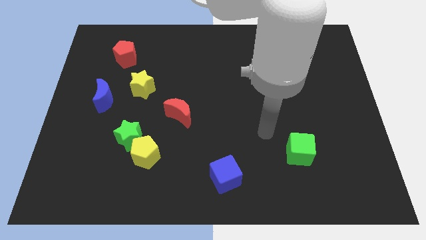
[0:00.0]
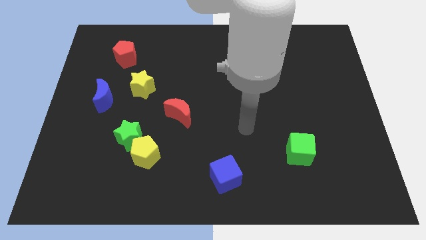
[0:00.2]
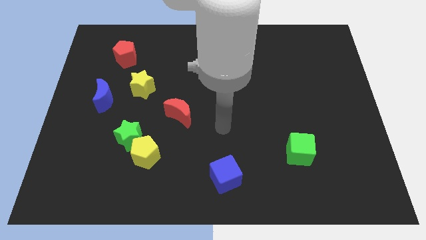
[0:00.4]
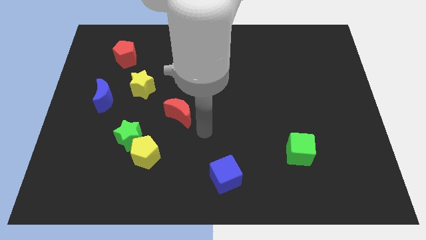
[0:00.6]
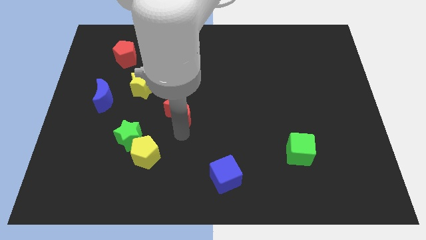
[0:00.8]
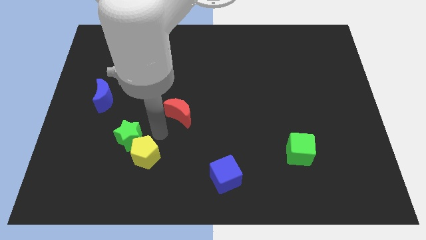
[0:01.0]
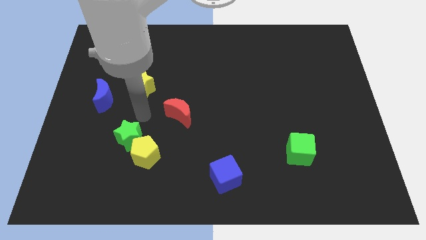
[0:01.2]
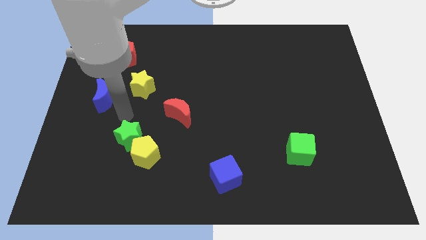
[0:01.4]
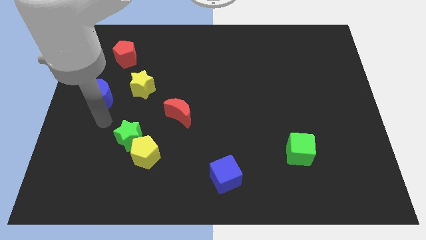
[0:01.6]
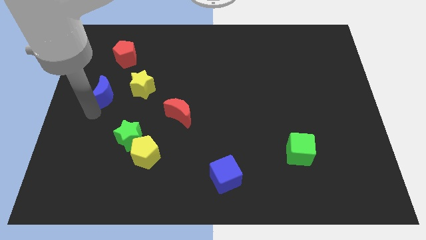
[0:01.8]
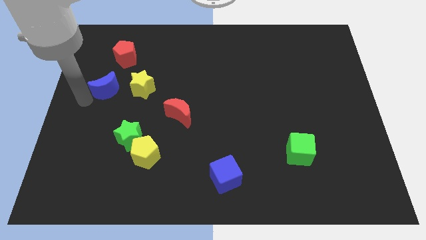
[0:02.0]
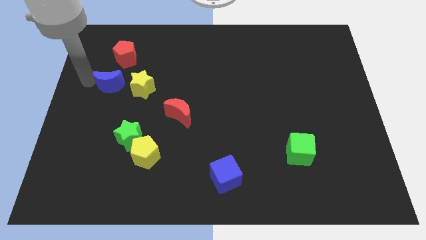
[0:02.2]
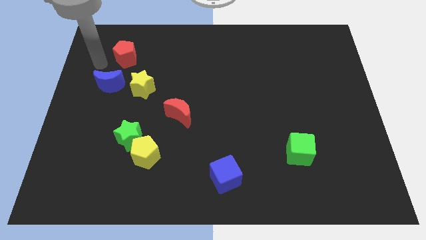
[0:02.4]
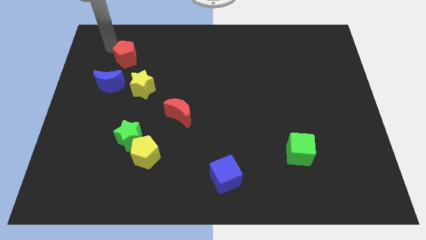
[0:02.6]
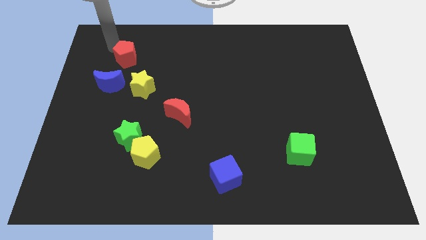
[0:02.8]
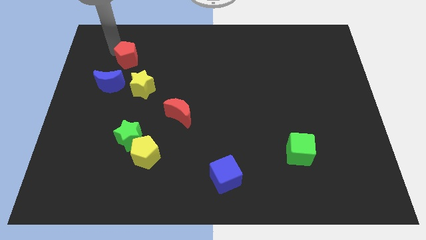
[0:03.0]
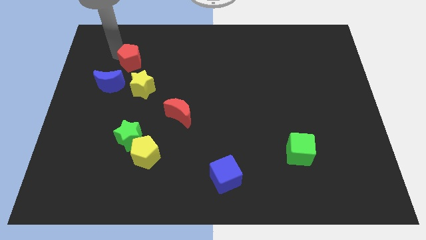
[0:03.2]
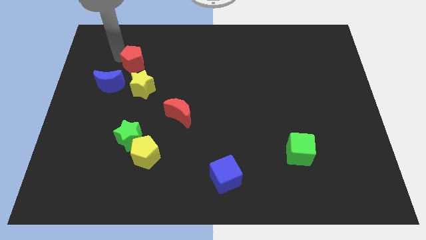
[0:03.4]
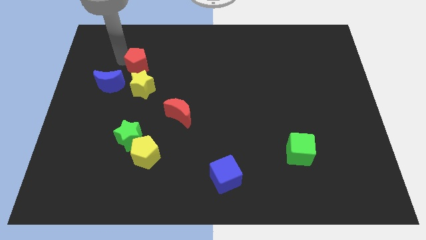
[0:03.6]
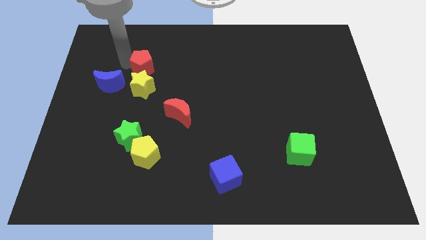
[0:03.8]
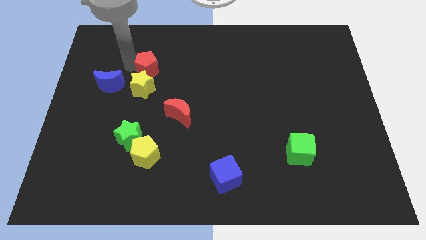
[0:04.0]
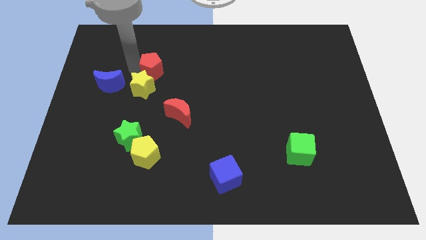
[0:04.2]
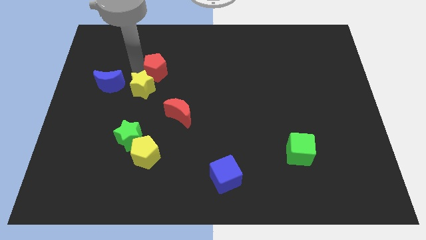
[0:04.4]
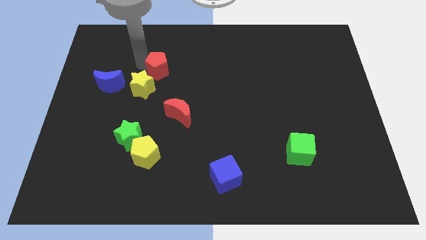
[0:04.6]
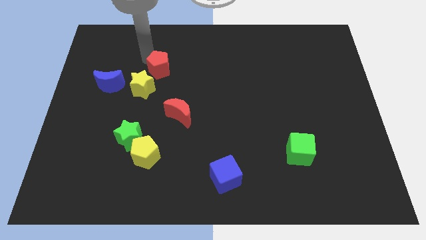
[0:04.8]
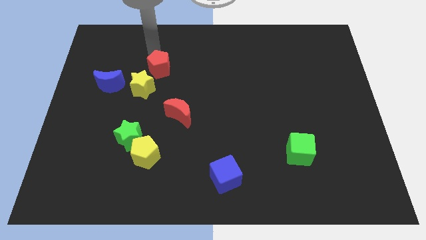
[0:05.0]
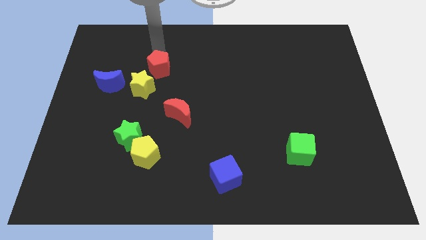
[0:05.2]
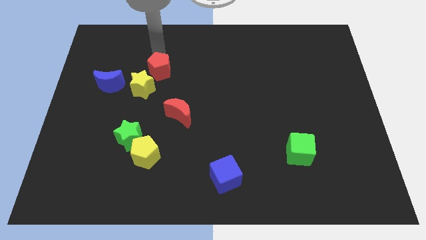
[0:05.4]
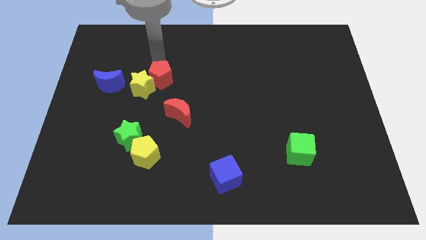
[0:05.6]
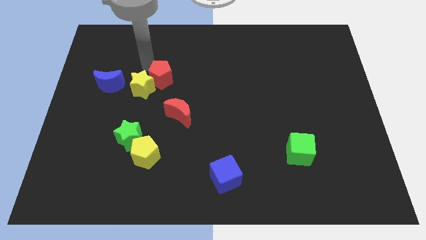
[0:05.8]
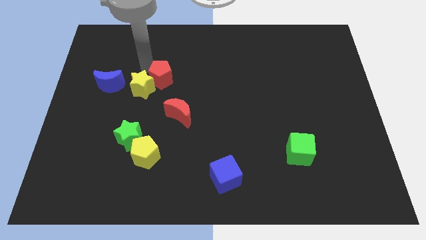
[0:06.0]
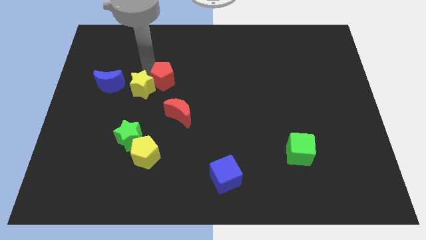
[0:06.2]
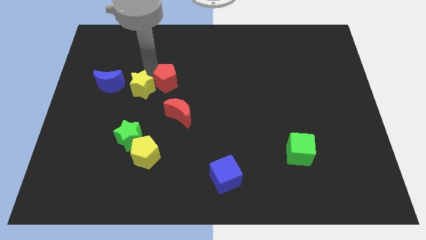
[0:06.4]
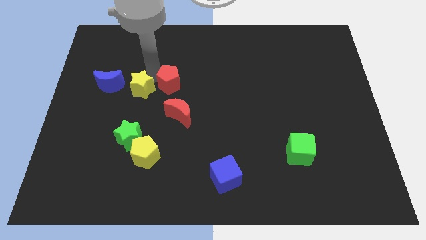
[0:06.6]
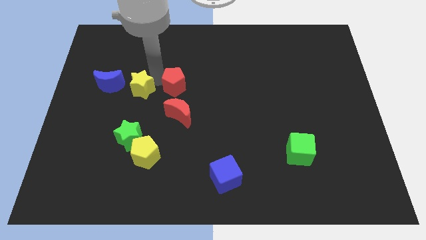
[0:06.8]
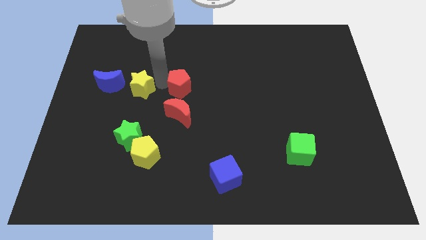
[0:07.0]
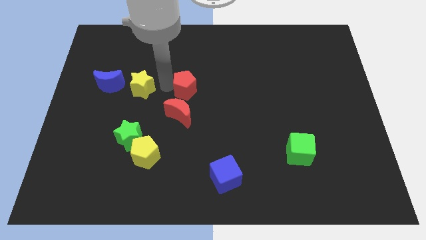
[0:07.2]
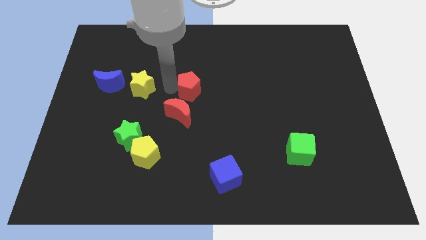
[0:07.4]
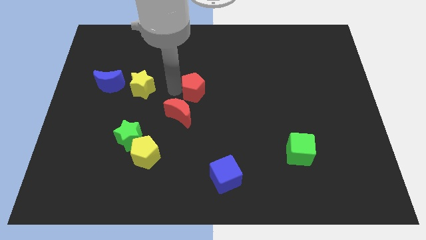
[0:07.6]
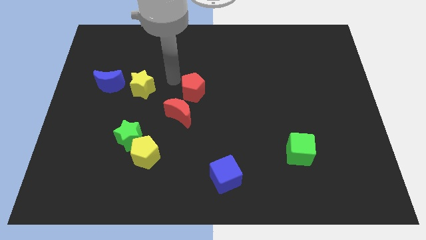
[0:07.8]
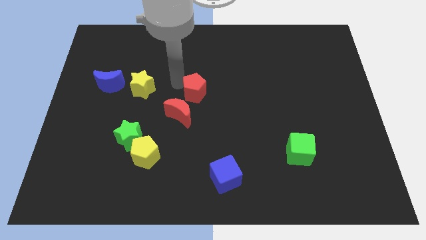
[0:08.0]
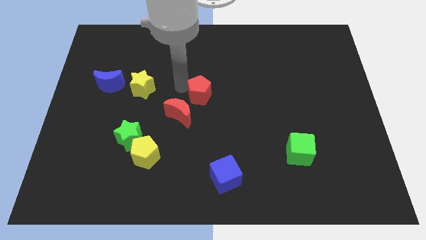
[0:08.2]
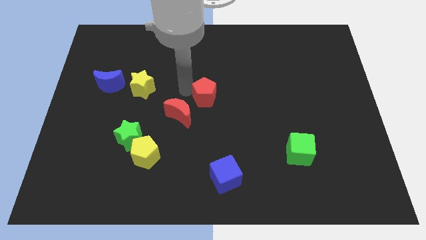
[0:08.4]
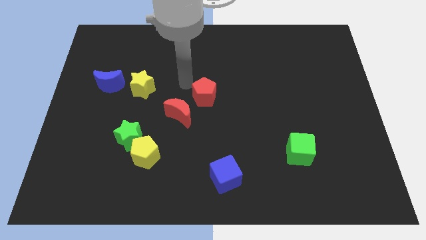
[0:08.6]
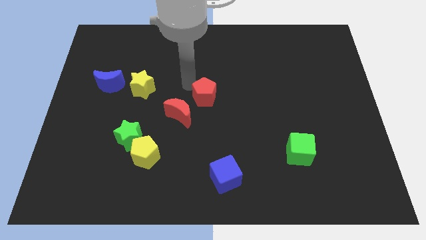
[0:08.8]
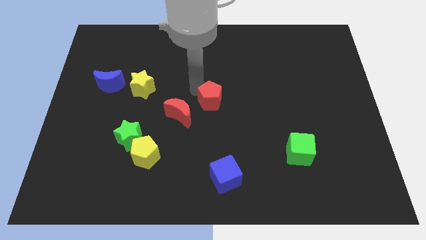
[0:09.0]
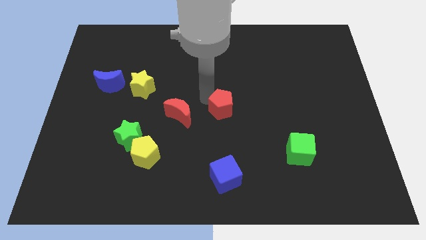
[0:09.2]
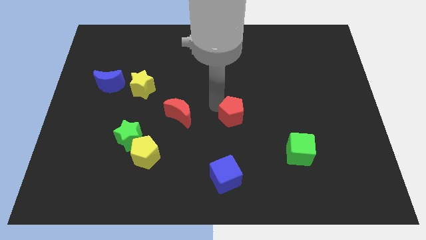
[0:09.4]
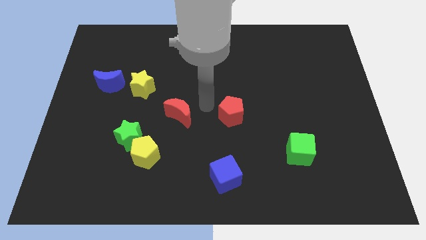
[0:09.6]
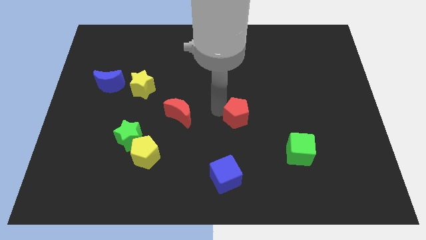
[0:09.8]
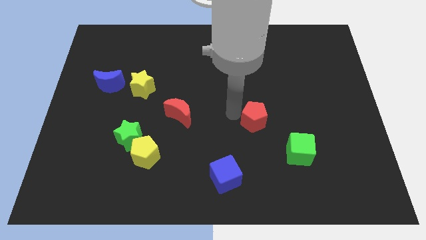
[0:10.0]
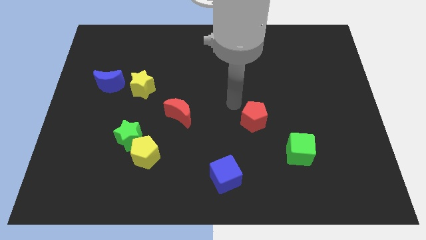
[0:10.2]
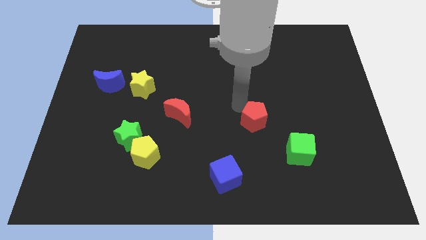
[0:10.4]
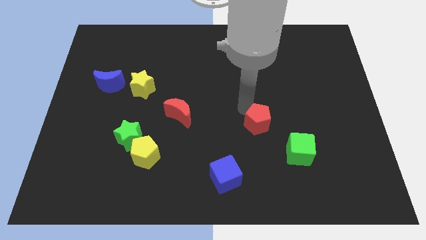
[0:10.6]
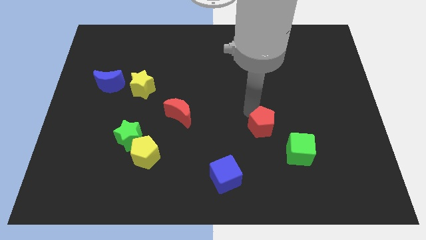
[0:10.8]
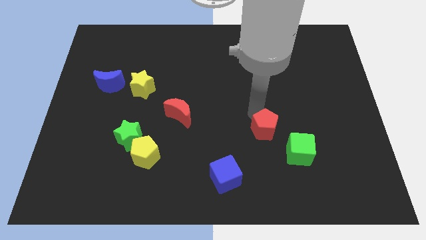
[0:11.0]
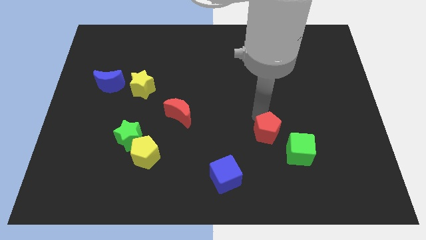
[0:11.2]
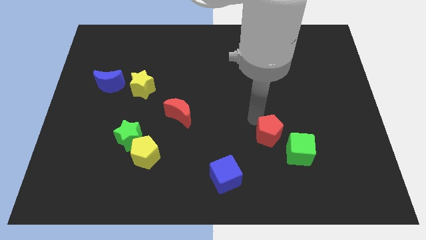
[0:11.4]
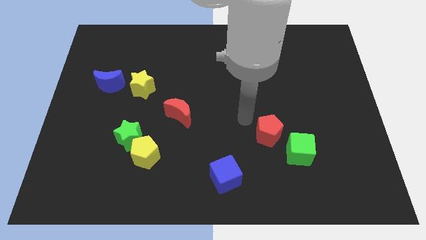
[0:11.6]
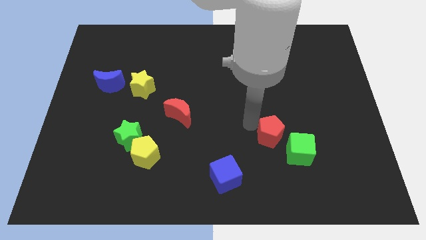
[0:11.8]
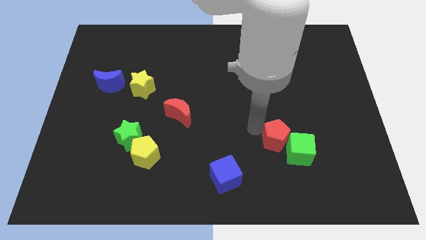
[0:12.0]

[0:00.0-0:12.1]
push the red pentagon to the green cube

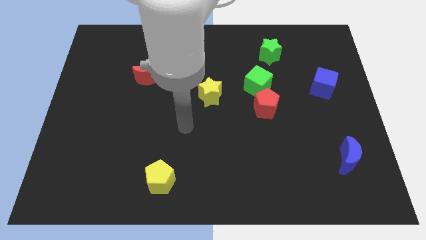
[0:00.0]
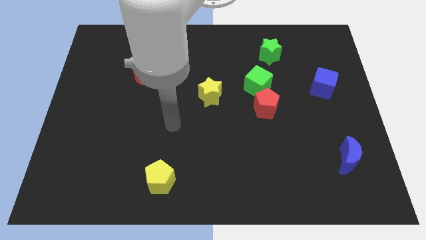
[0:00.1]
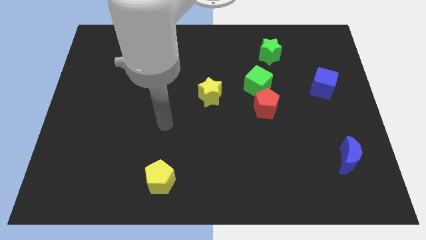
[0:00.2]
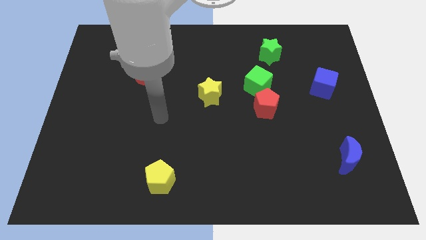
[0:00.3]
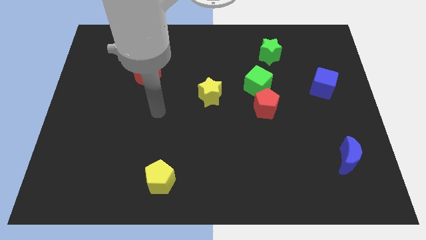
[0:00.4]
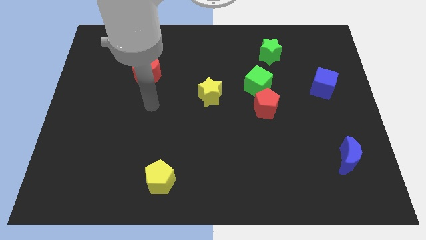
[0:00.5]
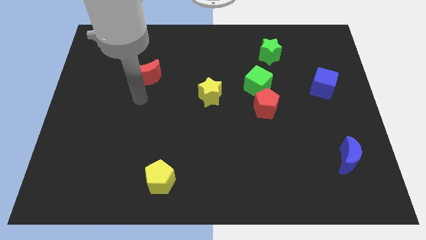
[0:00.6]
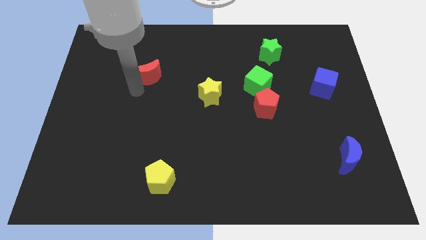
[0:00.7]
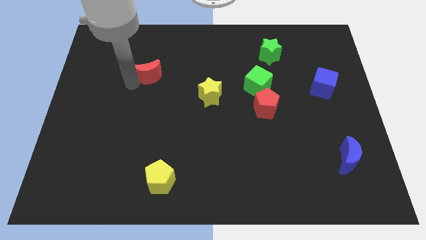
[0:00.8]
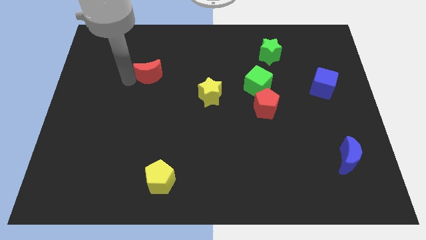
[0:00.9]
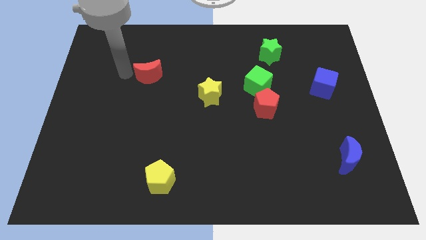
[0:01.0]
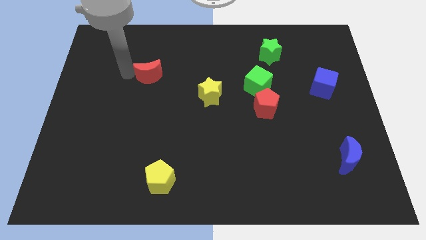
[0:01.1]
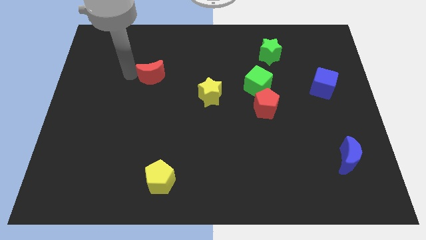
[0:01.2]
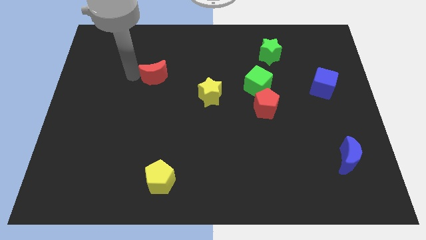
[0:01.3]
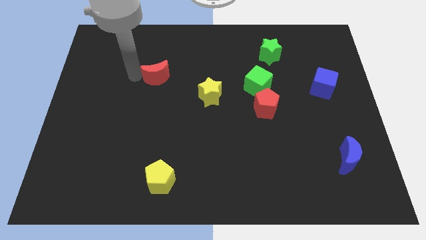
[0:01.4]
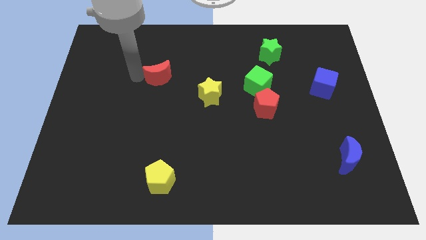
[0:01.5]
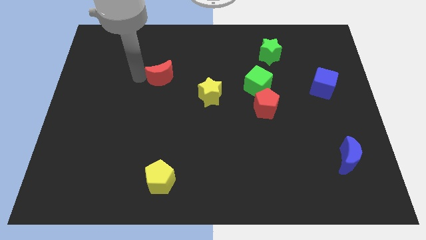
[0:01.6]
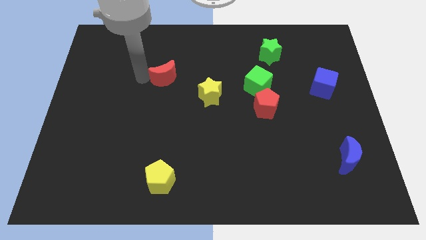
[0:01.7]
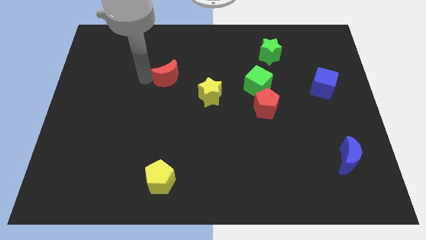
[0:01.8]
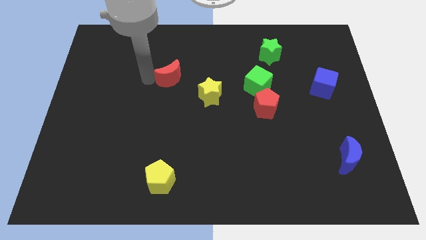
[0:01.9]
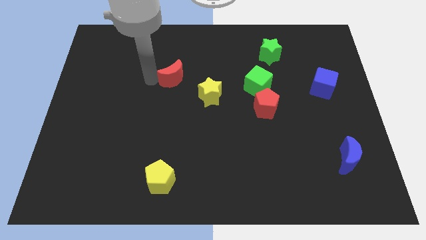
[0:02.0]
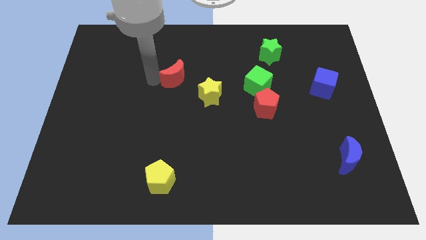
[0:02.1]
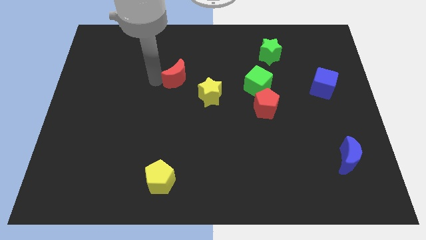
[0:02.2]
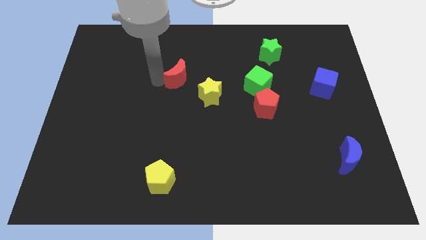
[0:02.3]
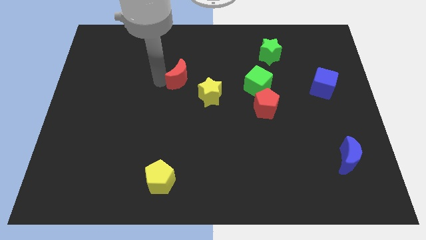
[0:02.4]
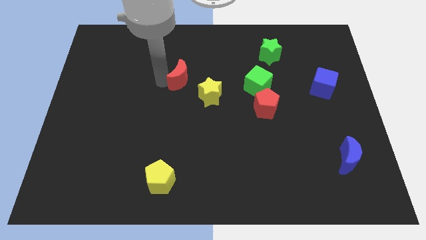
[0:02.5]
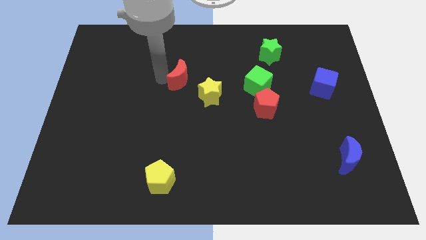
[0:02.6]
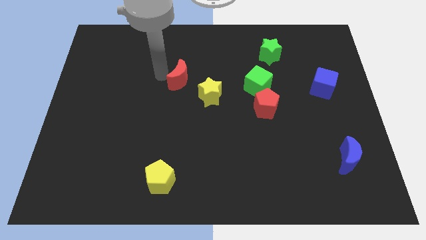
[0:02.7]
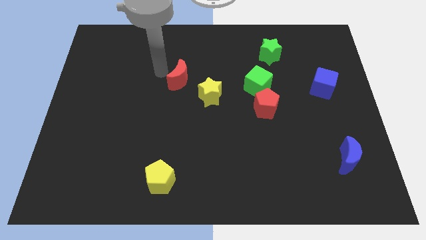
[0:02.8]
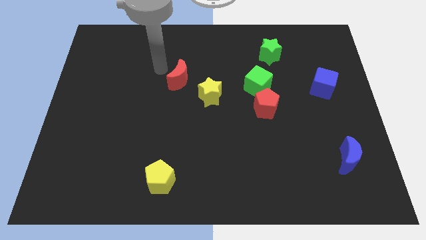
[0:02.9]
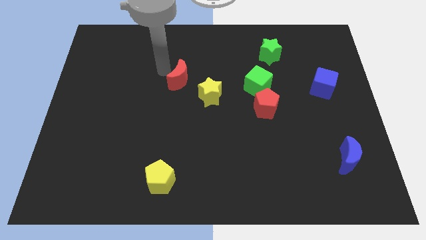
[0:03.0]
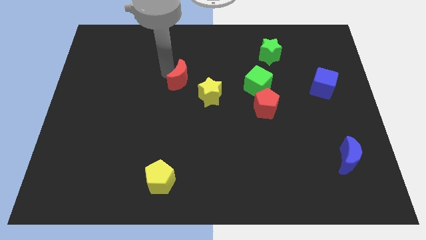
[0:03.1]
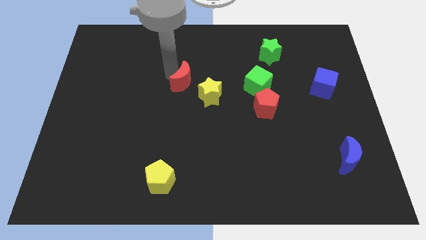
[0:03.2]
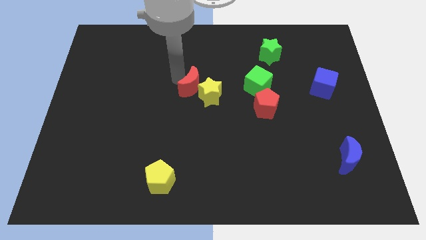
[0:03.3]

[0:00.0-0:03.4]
push the red moon close to the yellow star
